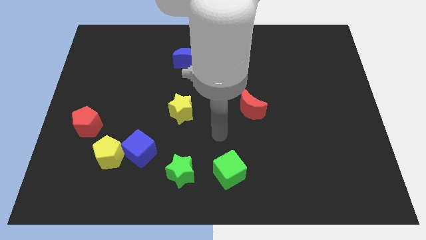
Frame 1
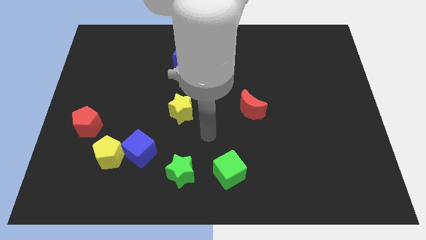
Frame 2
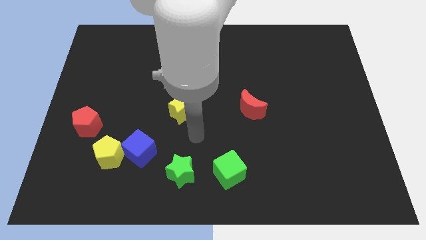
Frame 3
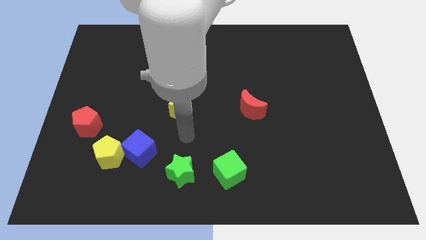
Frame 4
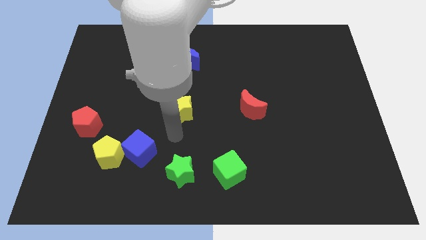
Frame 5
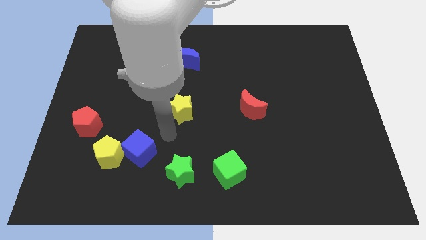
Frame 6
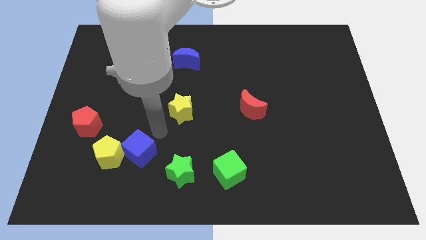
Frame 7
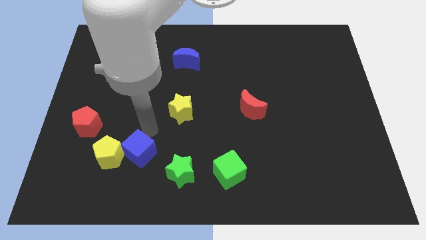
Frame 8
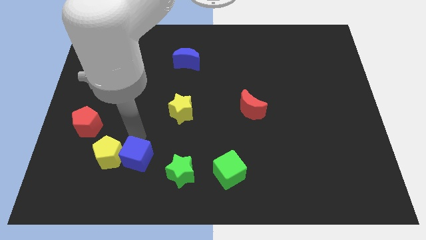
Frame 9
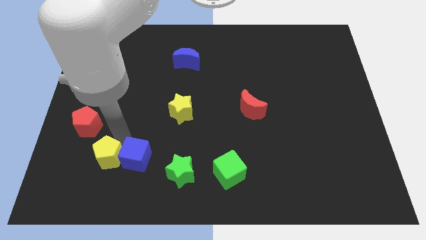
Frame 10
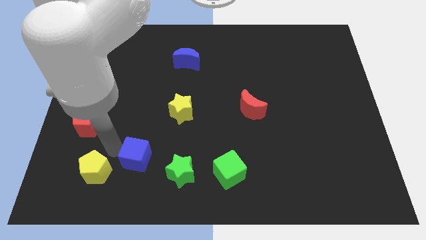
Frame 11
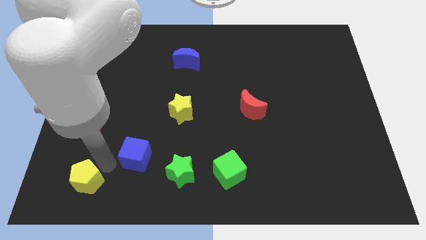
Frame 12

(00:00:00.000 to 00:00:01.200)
separate the blue cube from the yellow pentagon

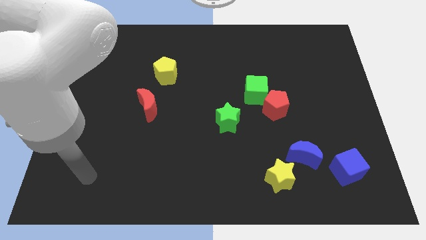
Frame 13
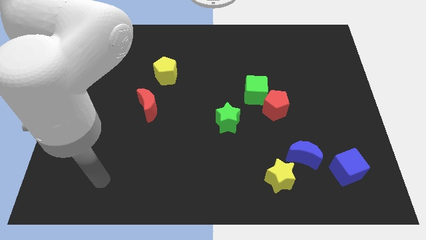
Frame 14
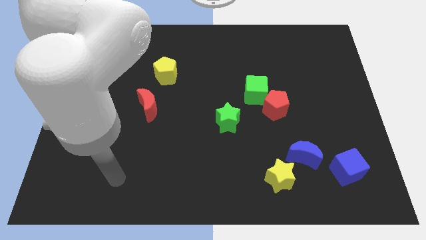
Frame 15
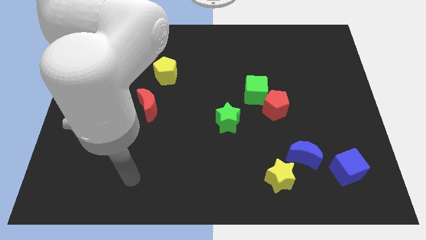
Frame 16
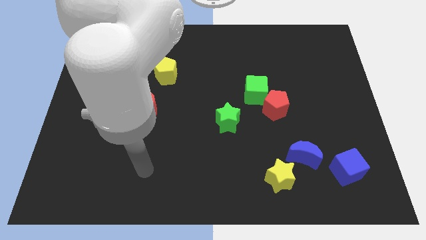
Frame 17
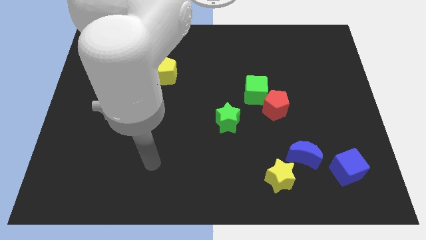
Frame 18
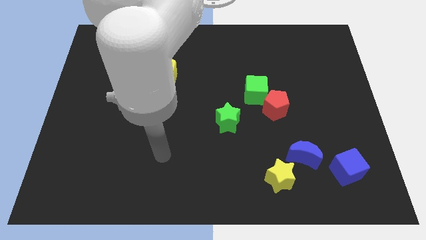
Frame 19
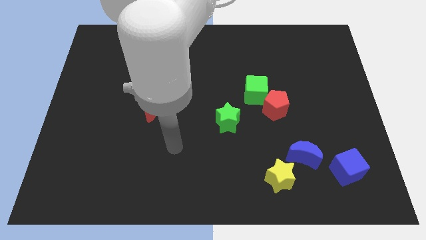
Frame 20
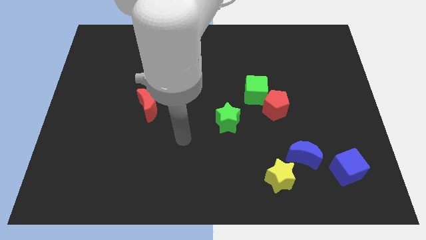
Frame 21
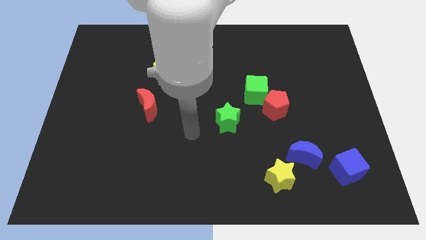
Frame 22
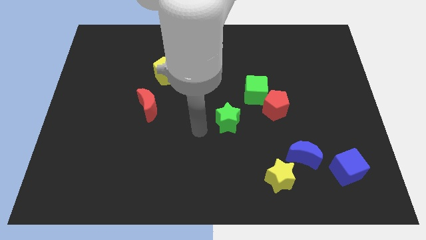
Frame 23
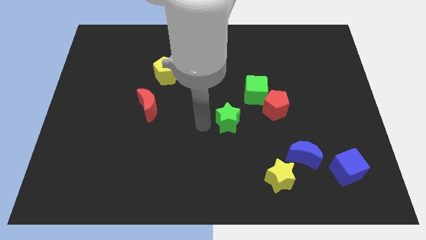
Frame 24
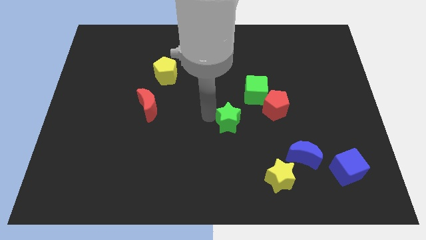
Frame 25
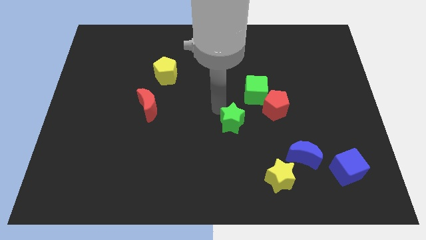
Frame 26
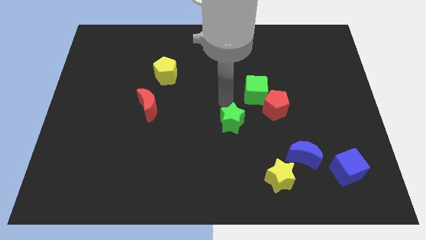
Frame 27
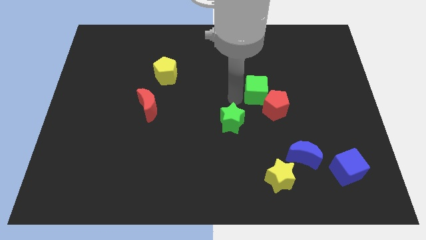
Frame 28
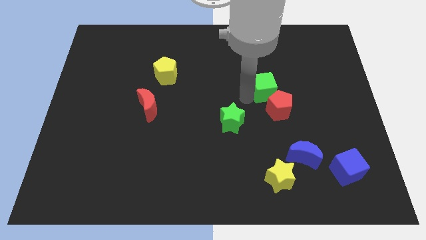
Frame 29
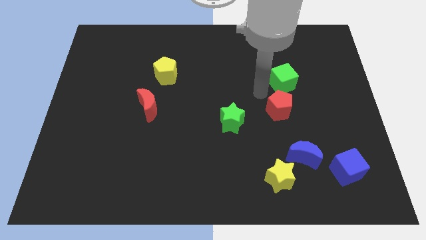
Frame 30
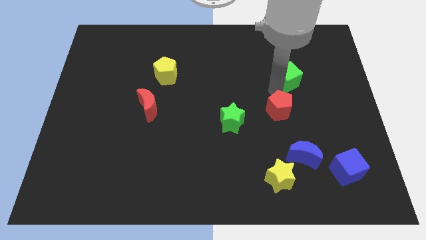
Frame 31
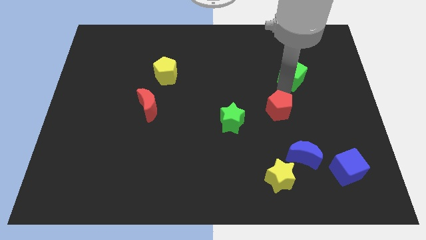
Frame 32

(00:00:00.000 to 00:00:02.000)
pull the red pentagon apart from the green cube

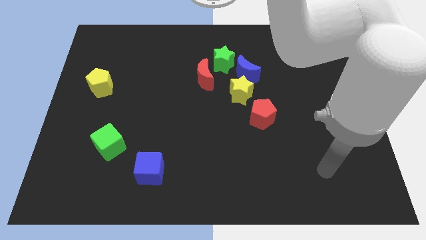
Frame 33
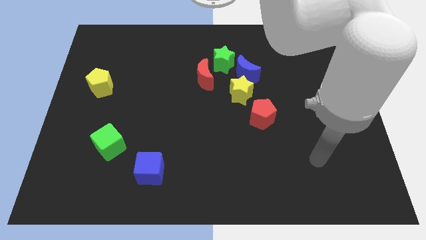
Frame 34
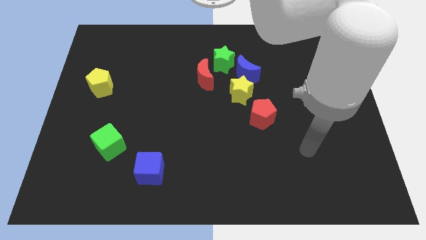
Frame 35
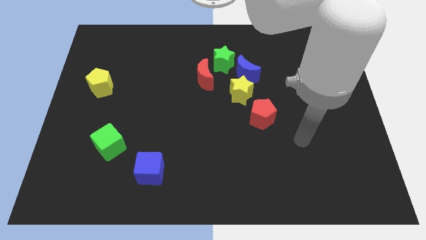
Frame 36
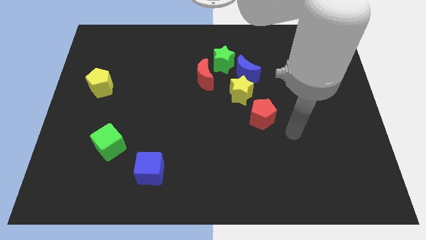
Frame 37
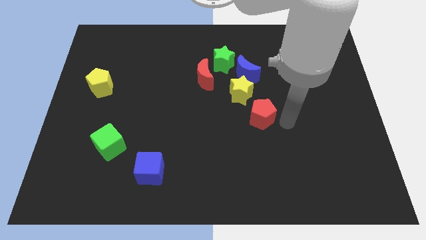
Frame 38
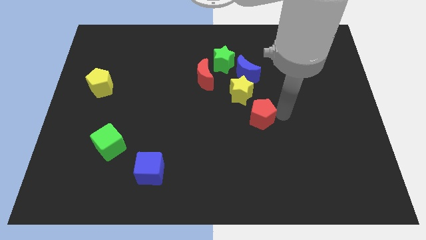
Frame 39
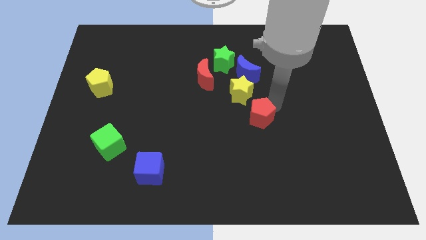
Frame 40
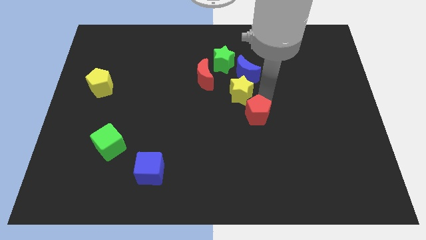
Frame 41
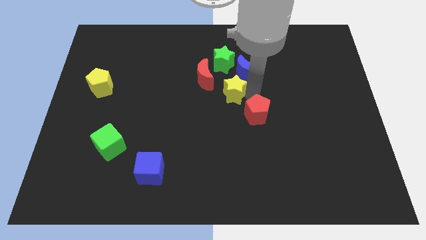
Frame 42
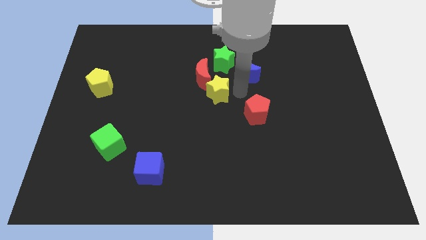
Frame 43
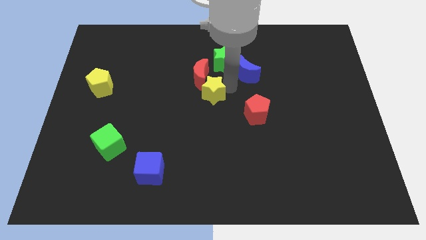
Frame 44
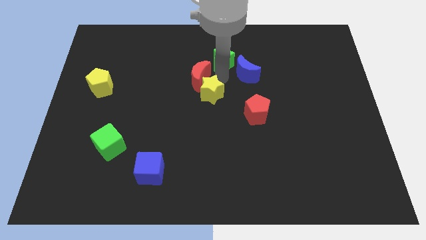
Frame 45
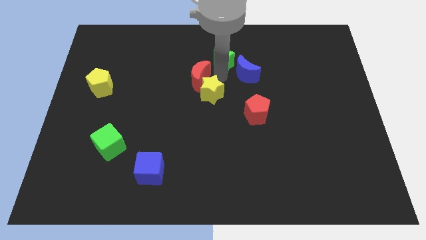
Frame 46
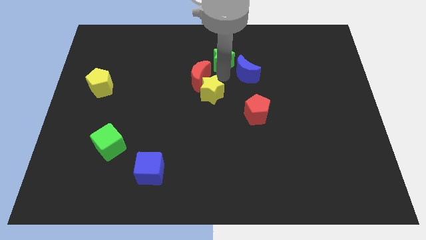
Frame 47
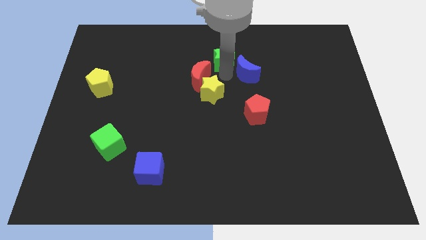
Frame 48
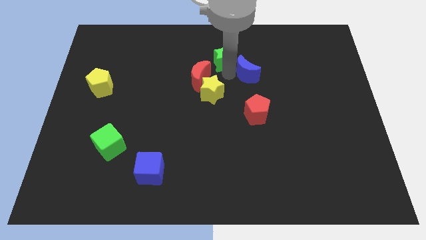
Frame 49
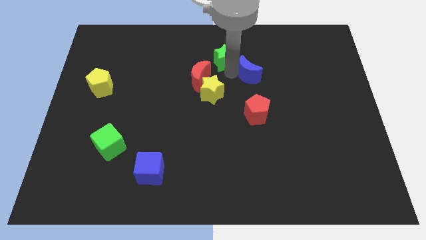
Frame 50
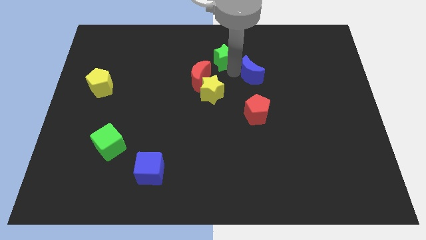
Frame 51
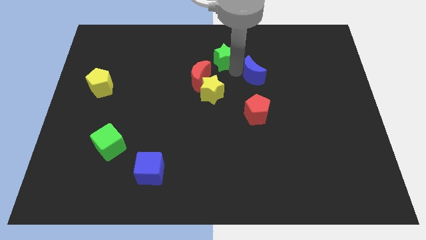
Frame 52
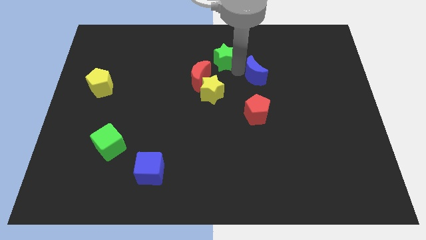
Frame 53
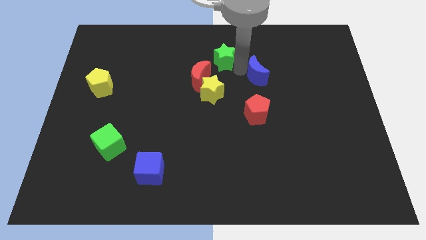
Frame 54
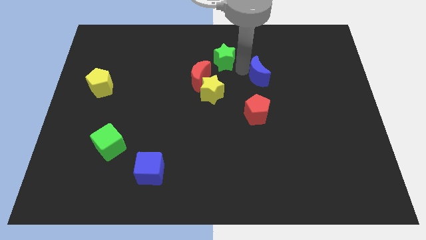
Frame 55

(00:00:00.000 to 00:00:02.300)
move the blue moon away from the yellow star and green star

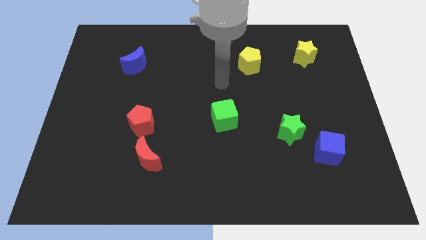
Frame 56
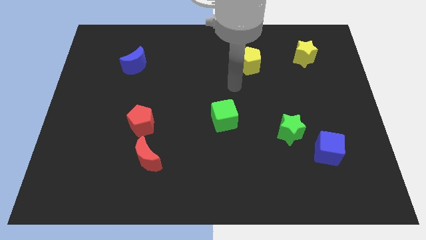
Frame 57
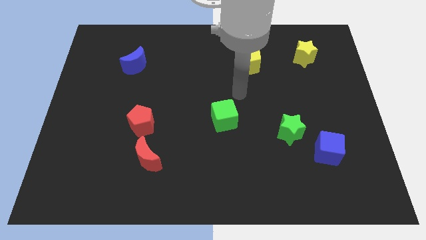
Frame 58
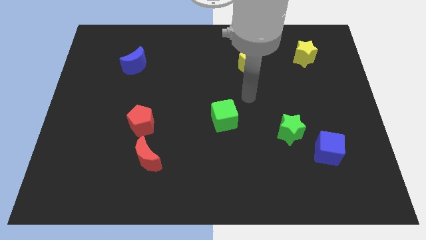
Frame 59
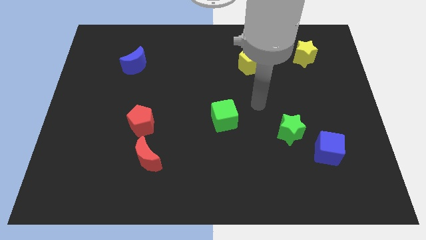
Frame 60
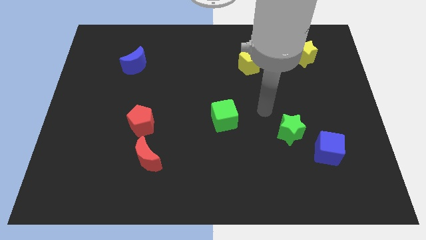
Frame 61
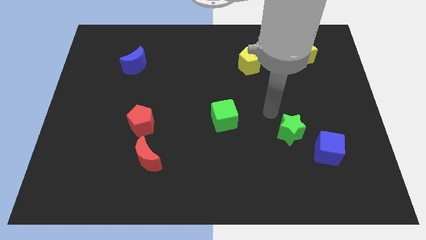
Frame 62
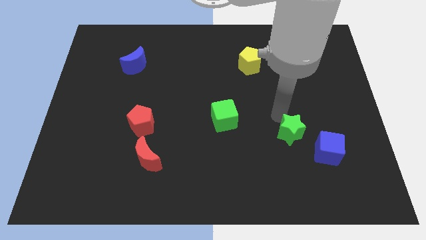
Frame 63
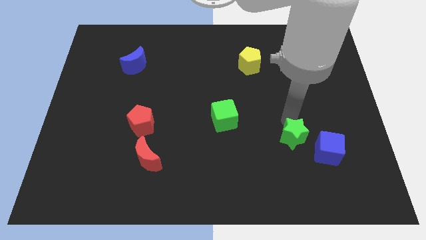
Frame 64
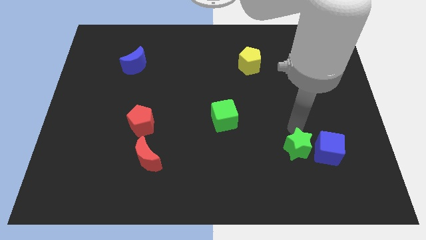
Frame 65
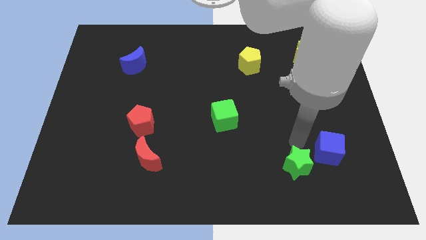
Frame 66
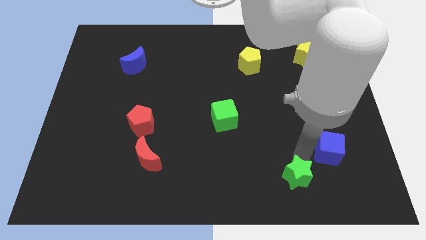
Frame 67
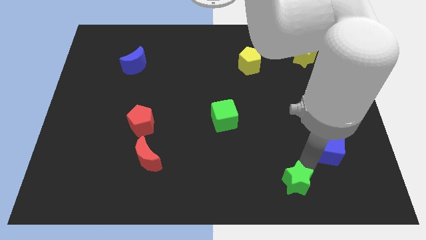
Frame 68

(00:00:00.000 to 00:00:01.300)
move the blue cube away from the green star

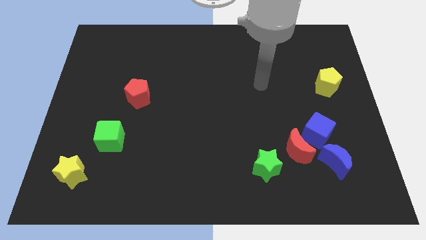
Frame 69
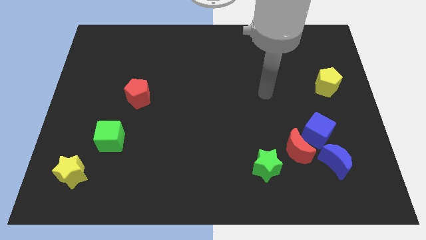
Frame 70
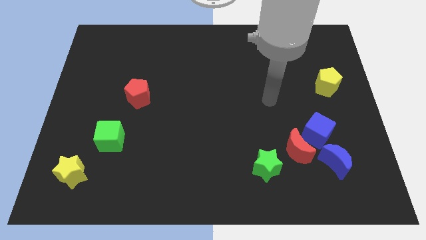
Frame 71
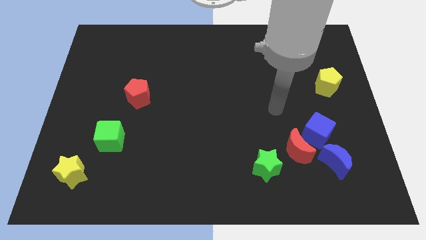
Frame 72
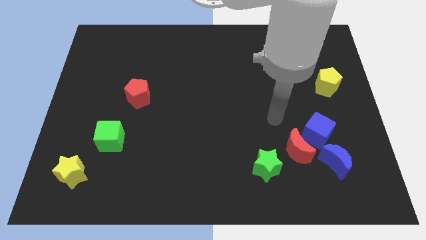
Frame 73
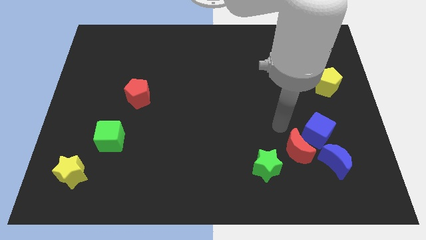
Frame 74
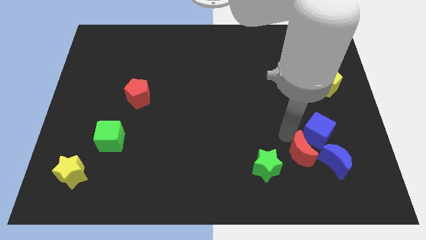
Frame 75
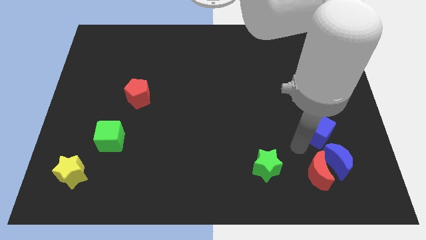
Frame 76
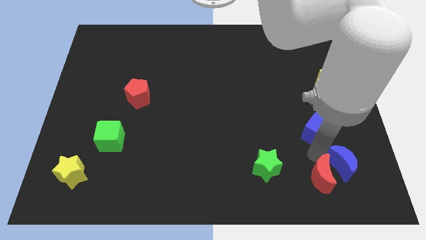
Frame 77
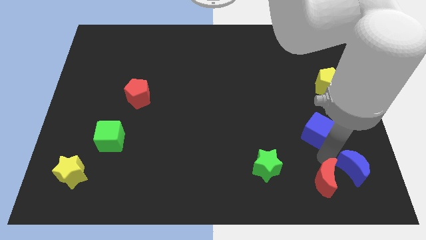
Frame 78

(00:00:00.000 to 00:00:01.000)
move the blue cube away from the red moon and blue moon

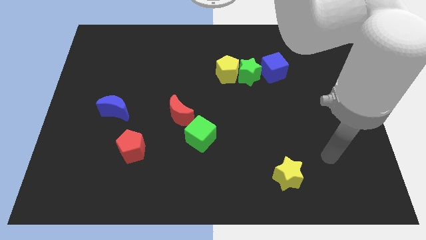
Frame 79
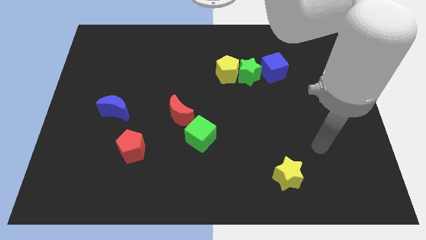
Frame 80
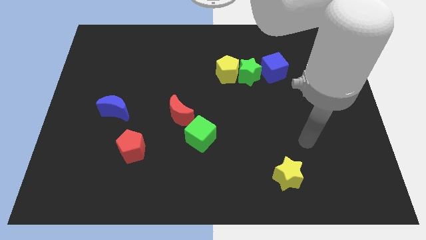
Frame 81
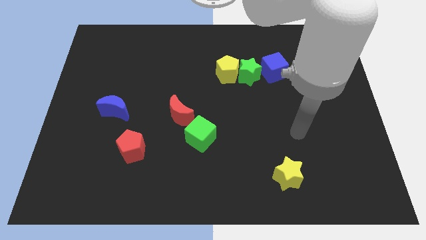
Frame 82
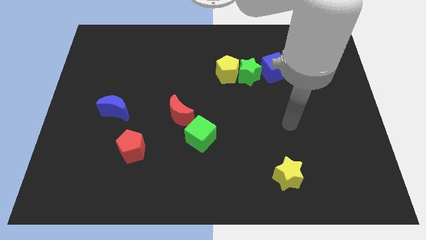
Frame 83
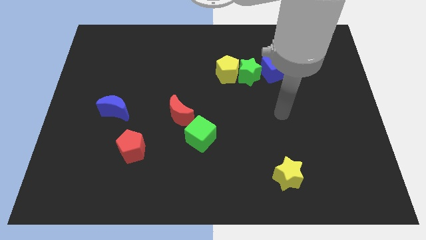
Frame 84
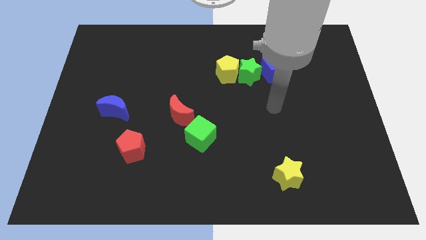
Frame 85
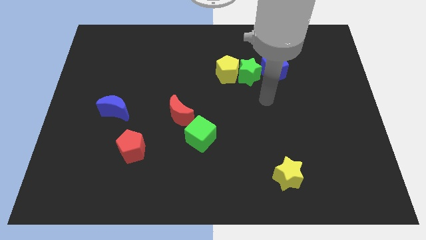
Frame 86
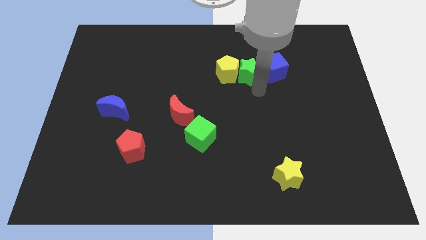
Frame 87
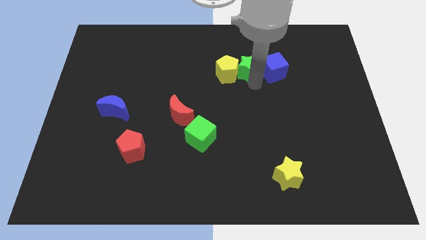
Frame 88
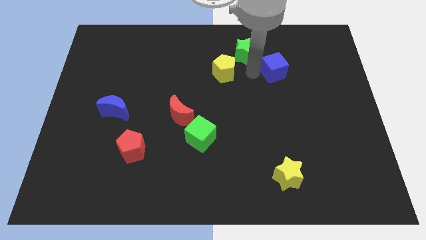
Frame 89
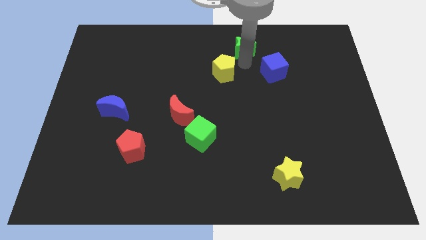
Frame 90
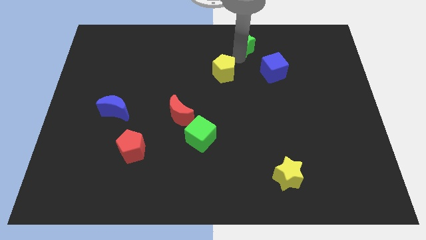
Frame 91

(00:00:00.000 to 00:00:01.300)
separate the yellow pentagon from the green star
